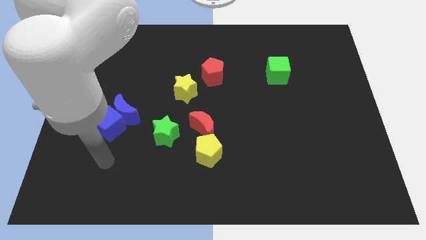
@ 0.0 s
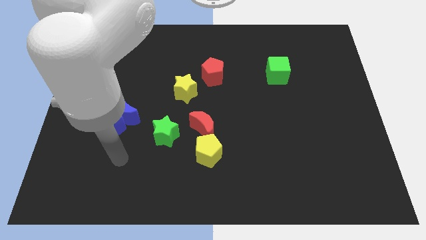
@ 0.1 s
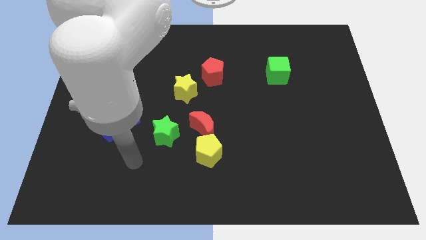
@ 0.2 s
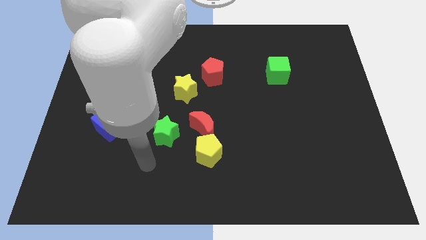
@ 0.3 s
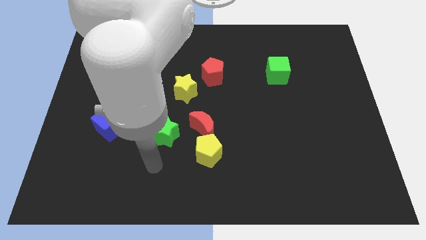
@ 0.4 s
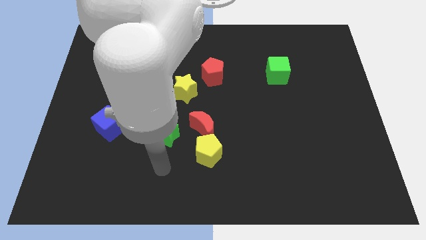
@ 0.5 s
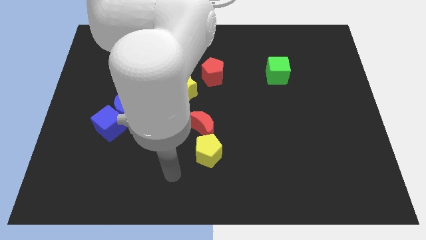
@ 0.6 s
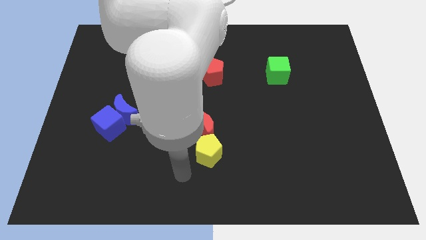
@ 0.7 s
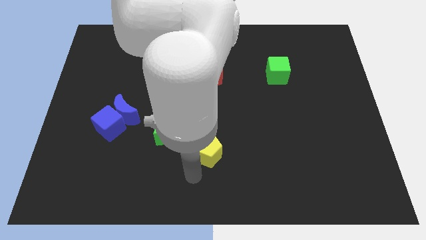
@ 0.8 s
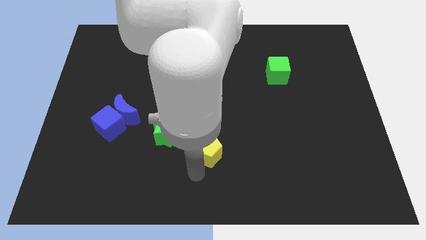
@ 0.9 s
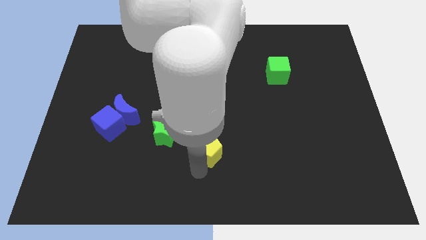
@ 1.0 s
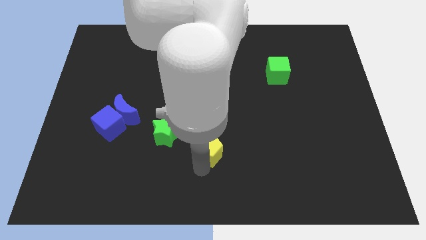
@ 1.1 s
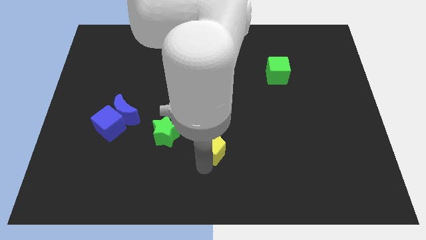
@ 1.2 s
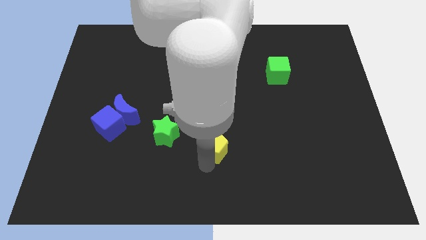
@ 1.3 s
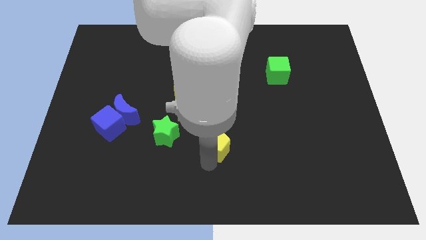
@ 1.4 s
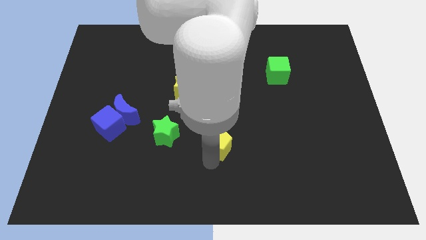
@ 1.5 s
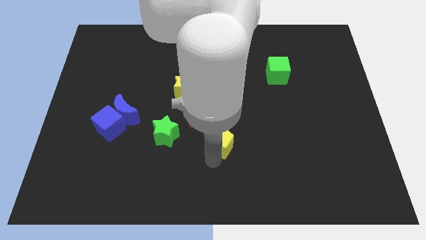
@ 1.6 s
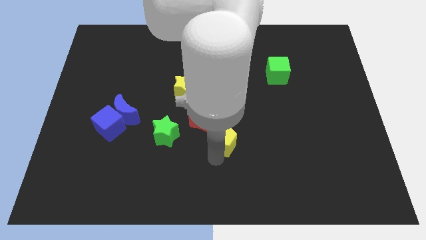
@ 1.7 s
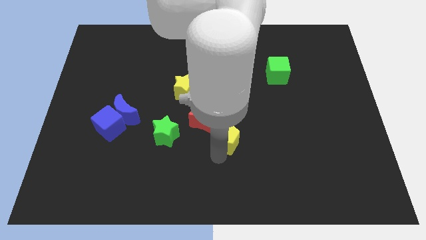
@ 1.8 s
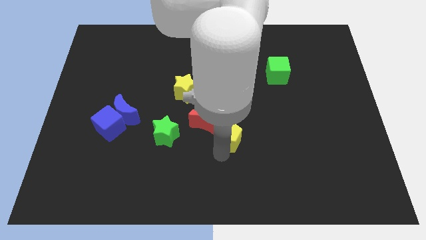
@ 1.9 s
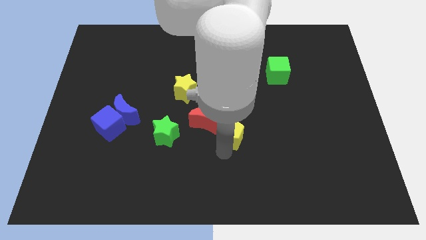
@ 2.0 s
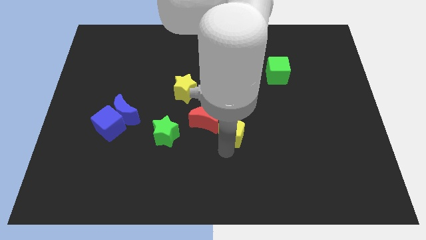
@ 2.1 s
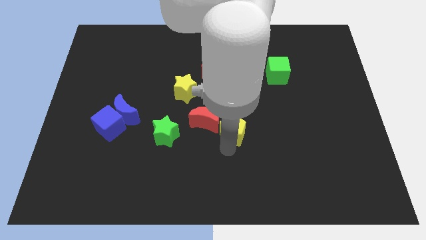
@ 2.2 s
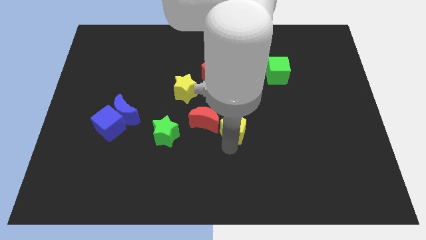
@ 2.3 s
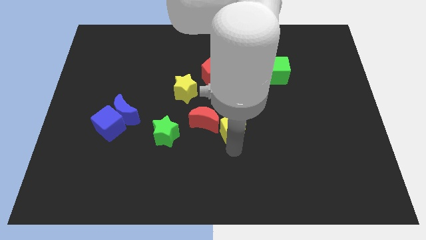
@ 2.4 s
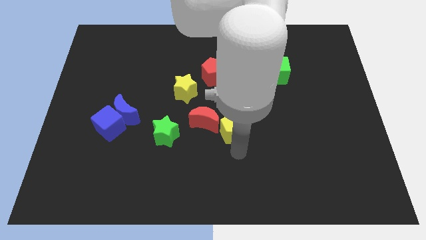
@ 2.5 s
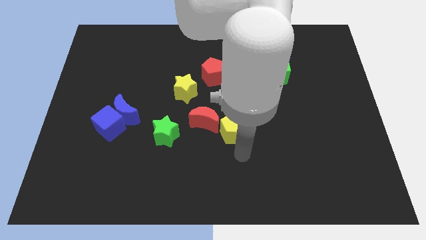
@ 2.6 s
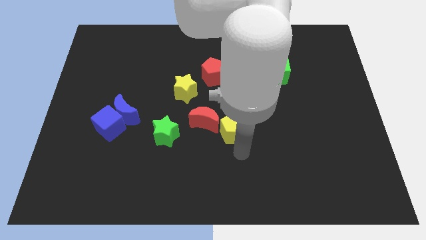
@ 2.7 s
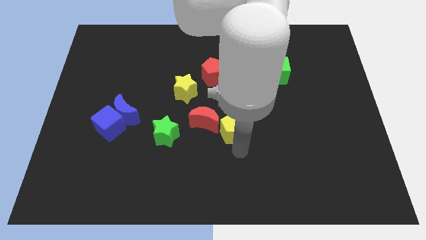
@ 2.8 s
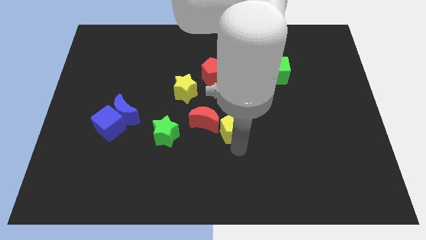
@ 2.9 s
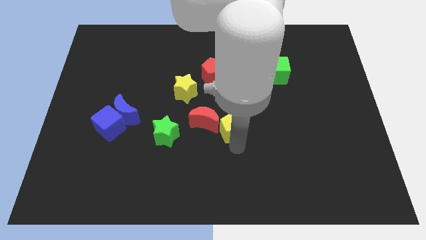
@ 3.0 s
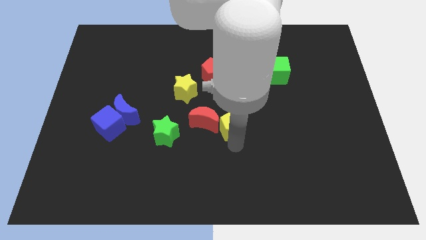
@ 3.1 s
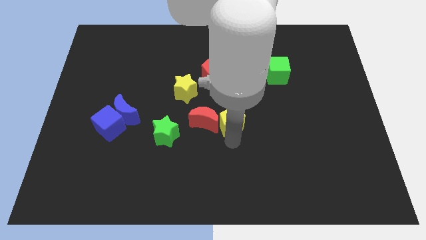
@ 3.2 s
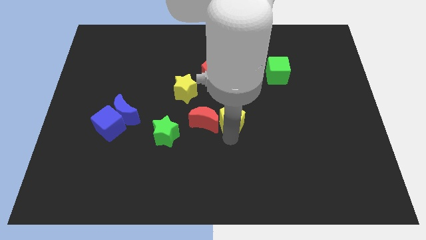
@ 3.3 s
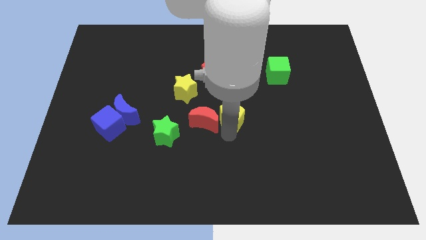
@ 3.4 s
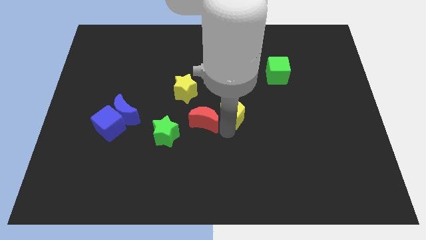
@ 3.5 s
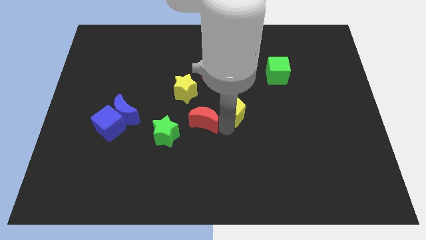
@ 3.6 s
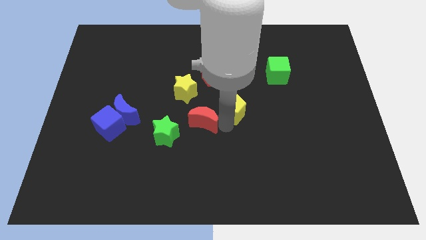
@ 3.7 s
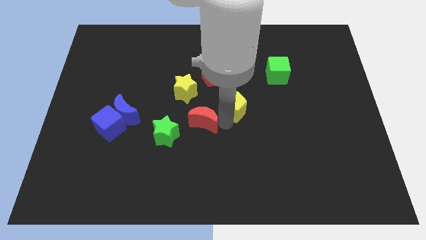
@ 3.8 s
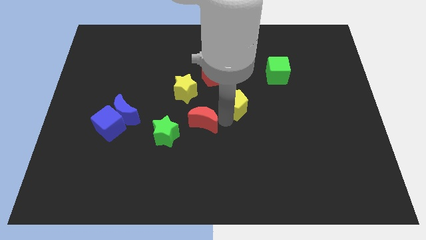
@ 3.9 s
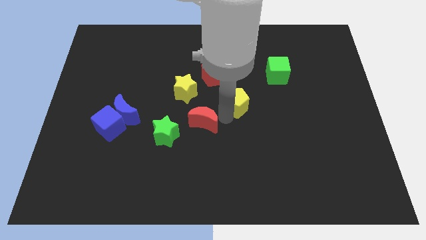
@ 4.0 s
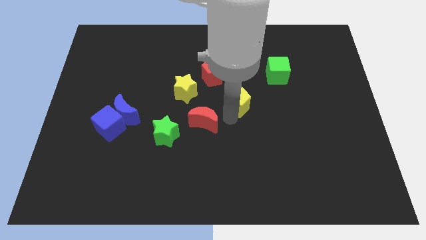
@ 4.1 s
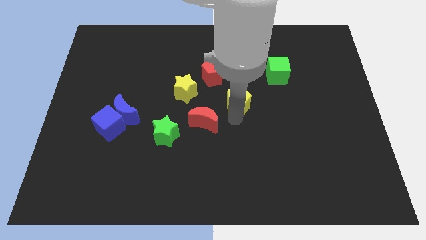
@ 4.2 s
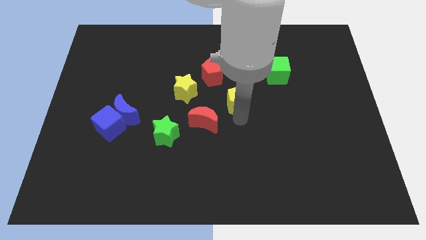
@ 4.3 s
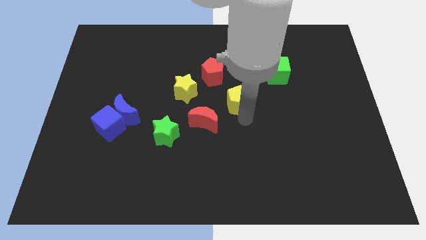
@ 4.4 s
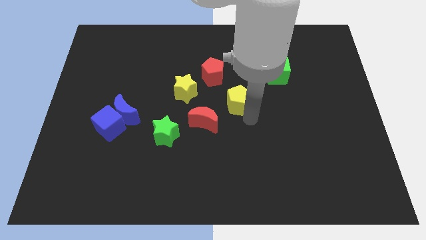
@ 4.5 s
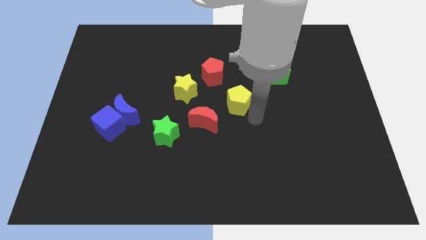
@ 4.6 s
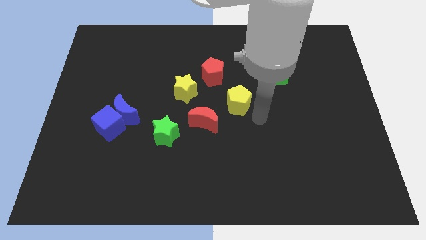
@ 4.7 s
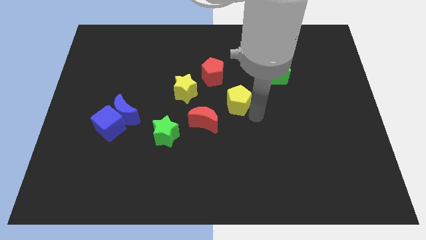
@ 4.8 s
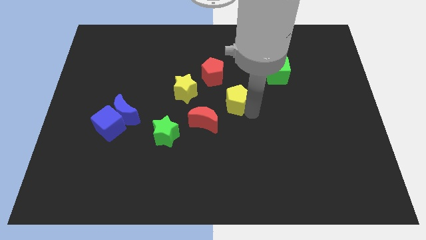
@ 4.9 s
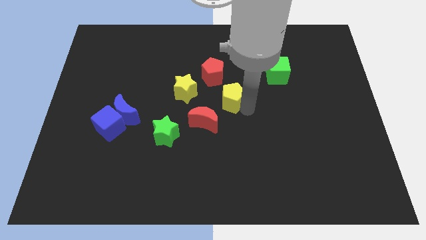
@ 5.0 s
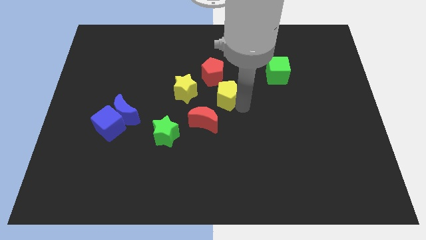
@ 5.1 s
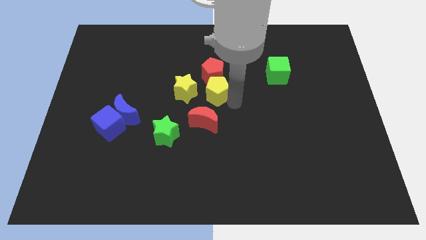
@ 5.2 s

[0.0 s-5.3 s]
slide the yellow pentagon close to the red pentagon

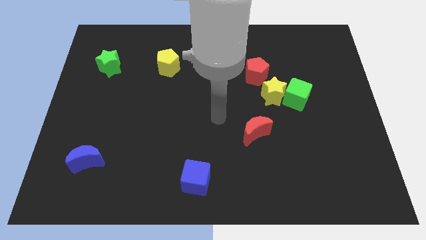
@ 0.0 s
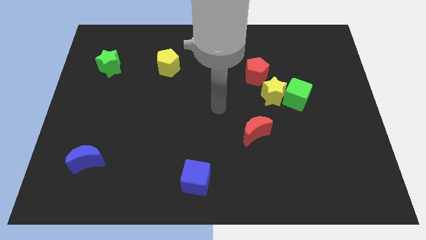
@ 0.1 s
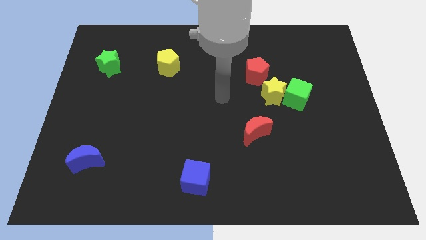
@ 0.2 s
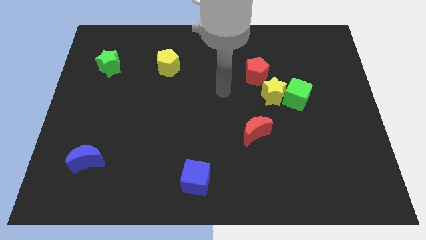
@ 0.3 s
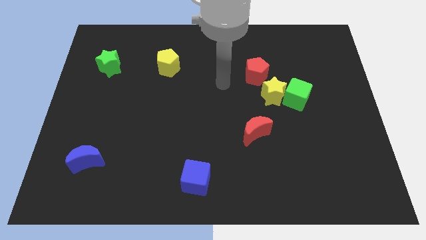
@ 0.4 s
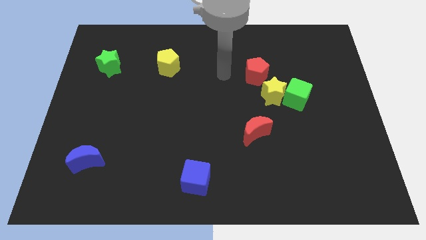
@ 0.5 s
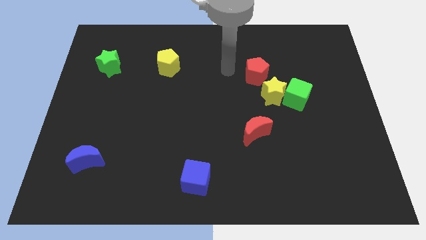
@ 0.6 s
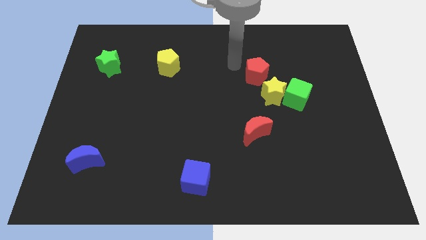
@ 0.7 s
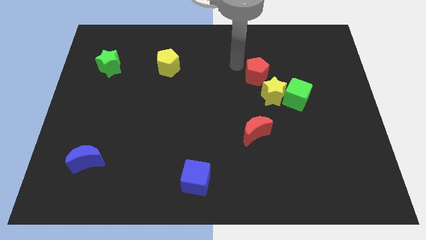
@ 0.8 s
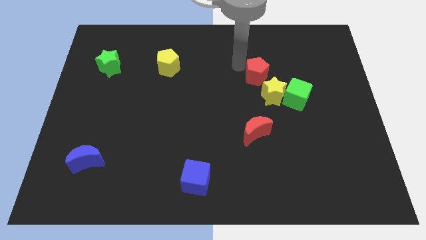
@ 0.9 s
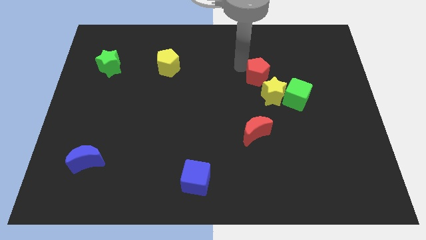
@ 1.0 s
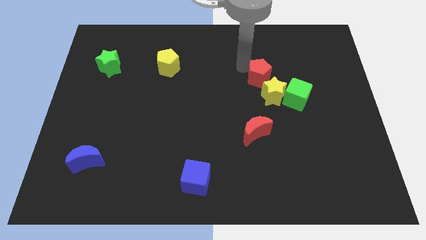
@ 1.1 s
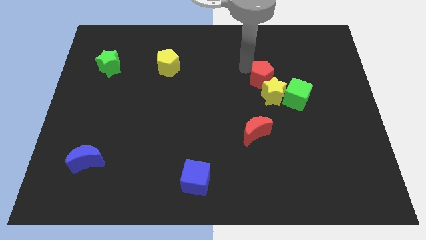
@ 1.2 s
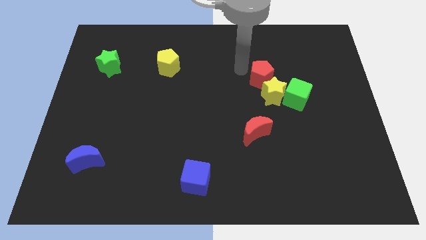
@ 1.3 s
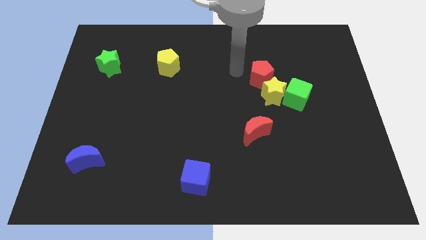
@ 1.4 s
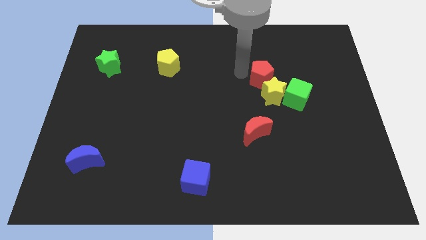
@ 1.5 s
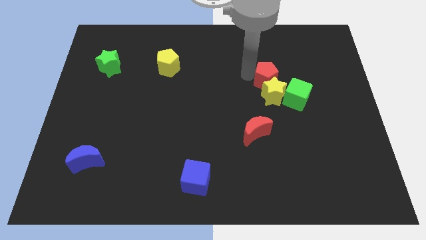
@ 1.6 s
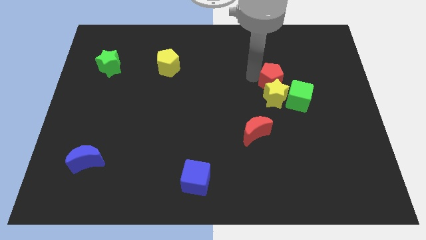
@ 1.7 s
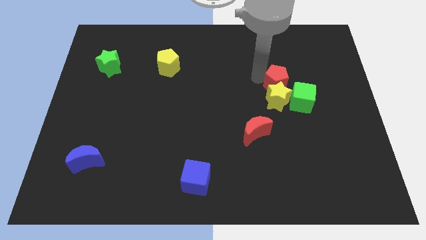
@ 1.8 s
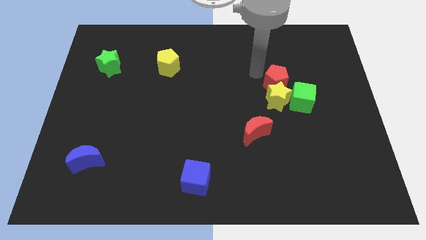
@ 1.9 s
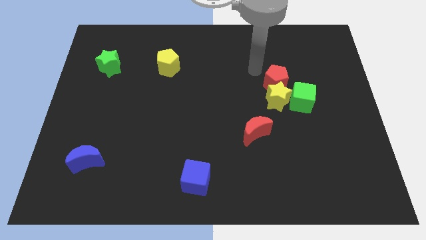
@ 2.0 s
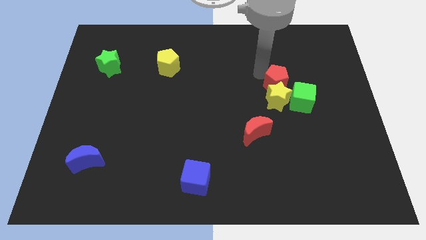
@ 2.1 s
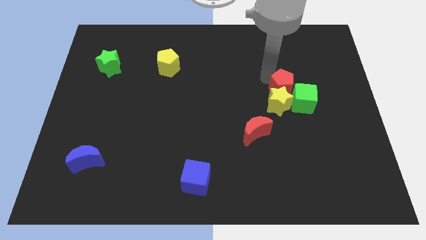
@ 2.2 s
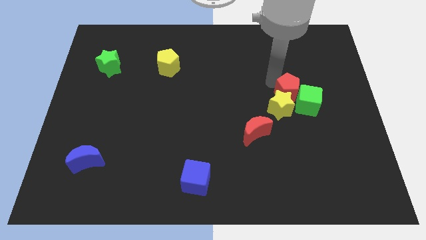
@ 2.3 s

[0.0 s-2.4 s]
put the red pentagon to the green cube
